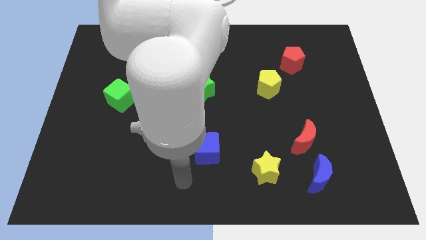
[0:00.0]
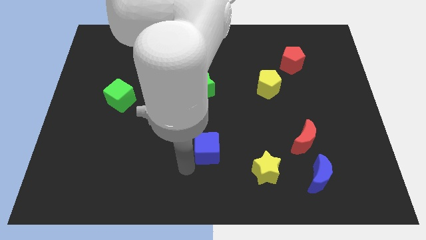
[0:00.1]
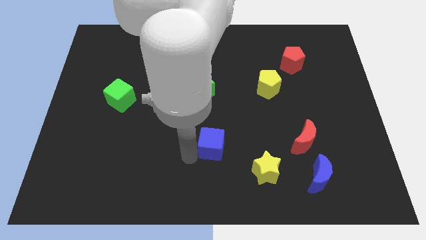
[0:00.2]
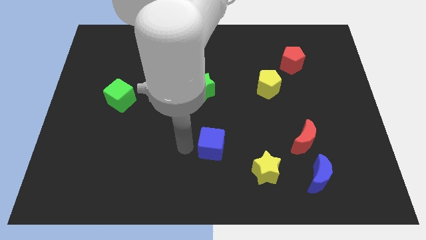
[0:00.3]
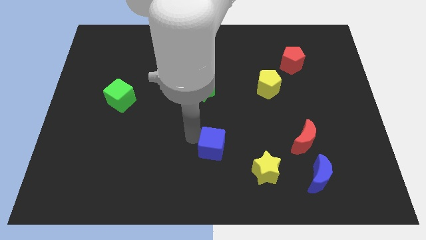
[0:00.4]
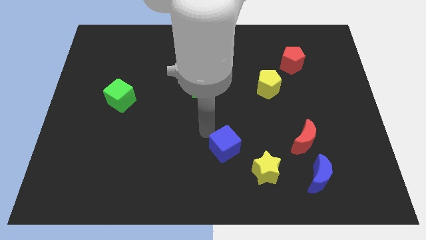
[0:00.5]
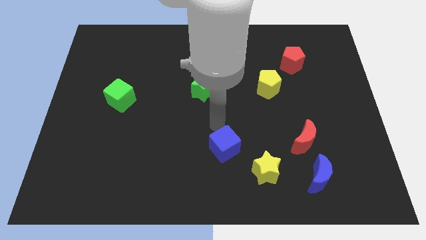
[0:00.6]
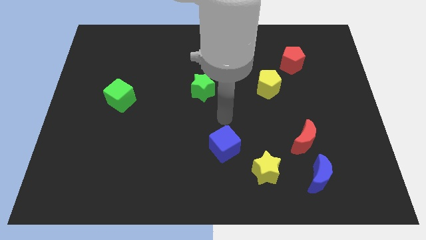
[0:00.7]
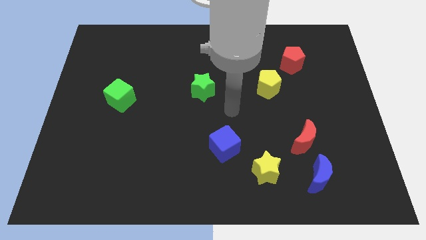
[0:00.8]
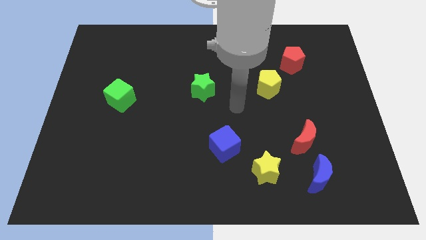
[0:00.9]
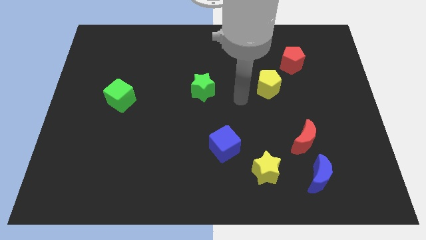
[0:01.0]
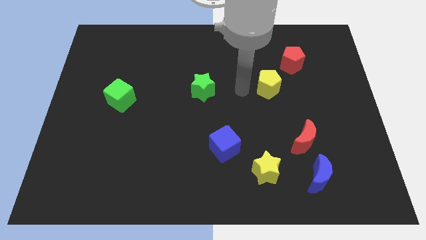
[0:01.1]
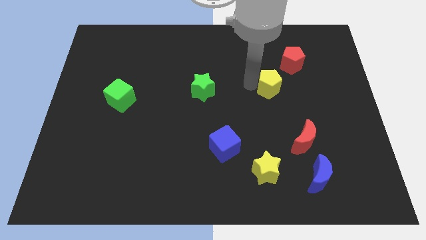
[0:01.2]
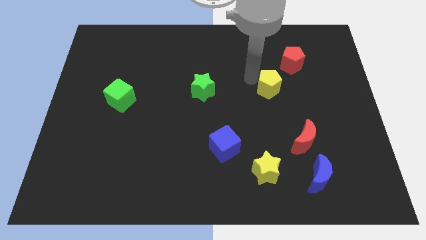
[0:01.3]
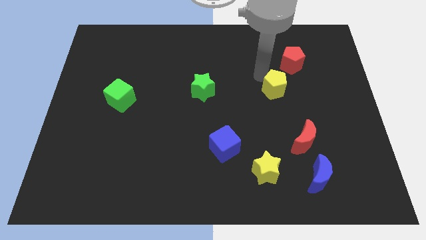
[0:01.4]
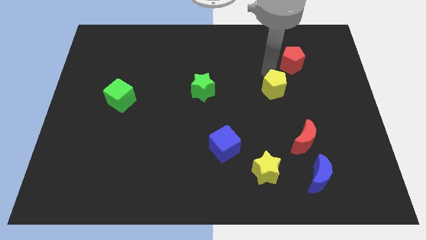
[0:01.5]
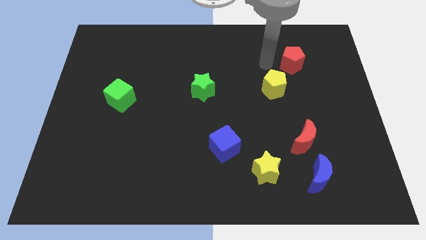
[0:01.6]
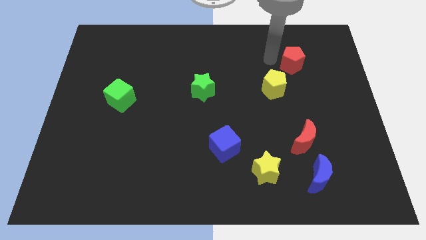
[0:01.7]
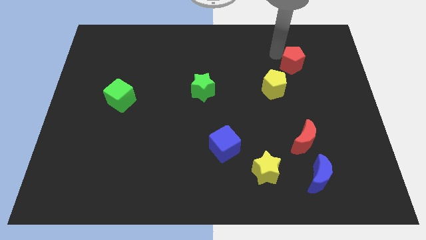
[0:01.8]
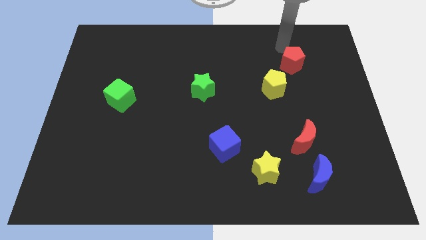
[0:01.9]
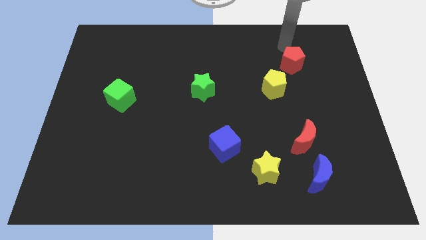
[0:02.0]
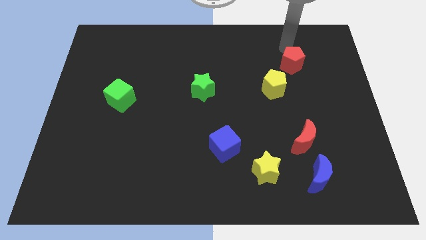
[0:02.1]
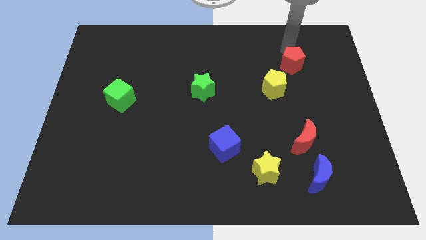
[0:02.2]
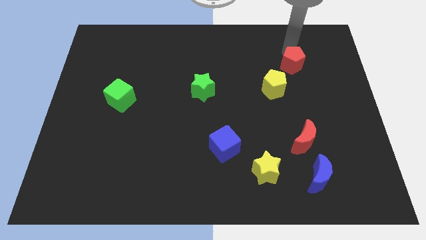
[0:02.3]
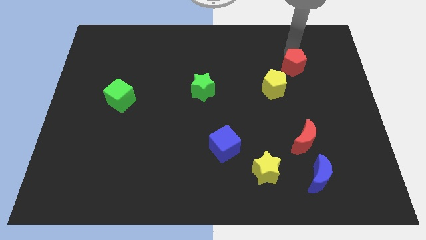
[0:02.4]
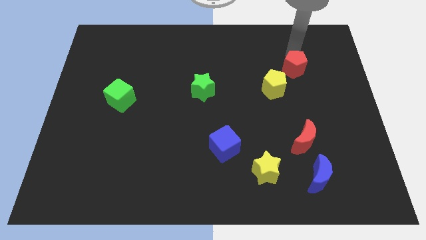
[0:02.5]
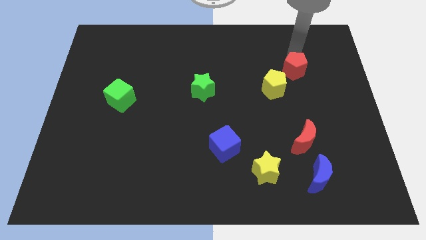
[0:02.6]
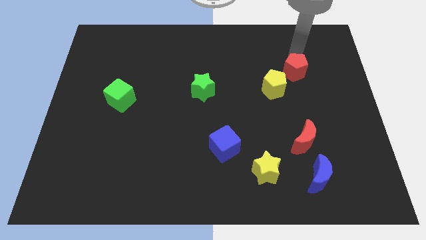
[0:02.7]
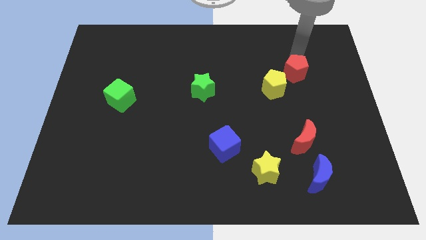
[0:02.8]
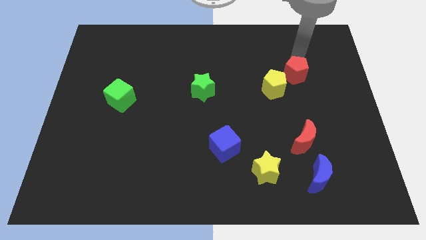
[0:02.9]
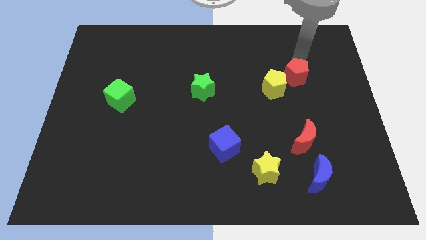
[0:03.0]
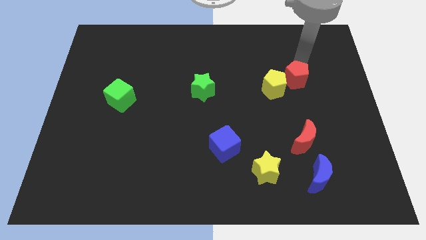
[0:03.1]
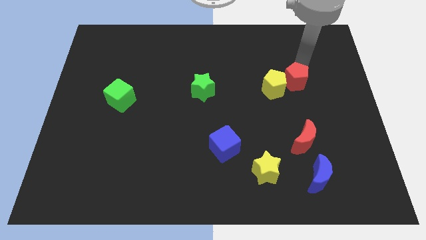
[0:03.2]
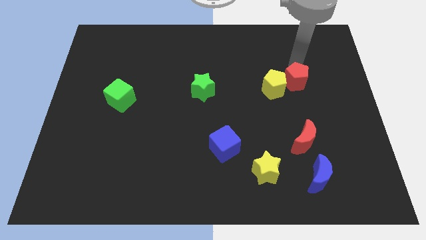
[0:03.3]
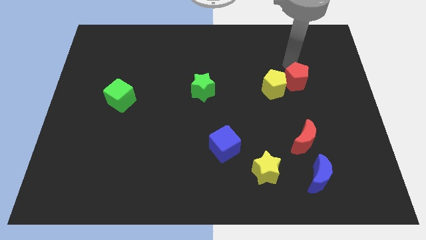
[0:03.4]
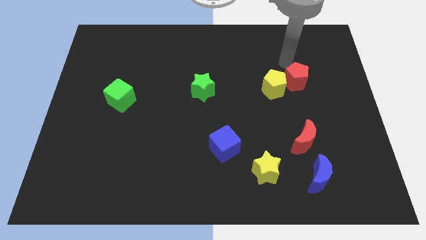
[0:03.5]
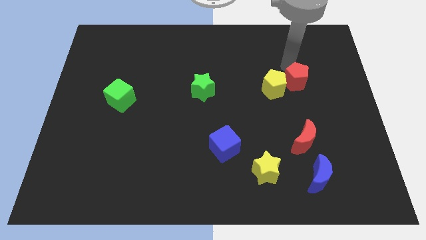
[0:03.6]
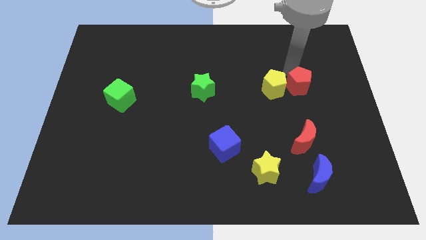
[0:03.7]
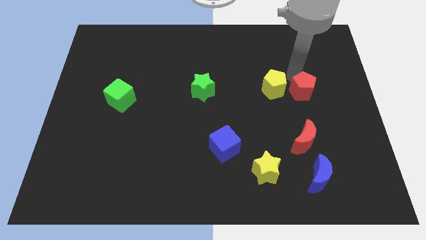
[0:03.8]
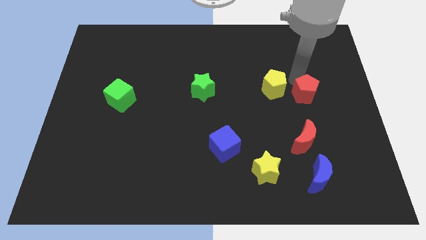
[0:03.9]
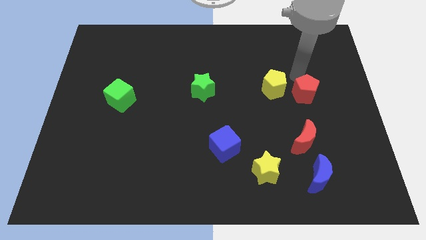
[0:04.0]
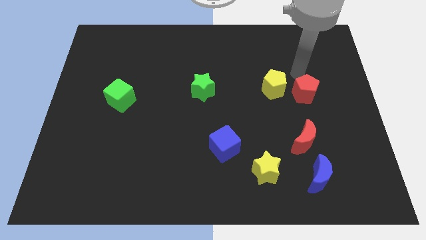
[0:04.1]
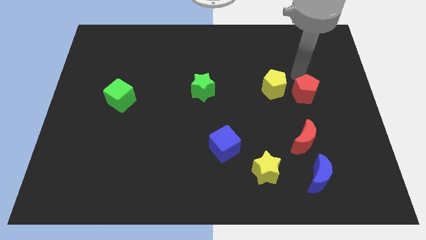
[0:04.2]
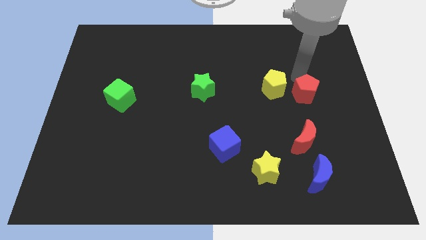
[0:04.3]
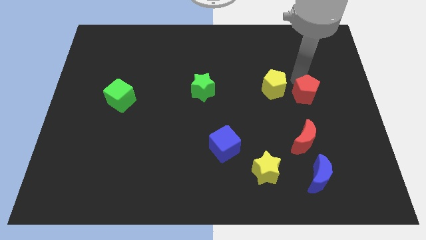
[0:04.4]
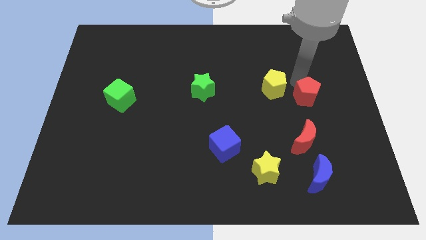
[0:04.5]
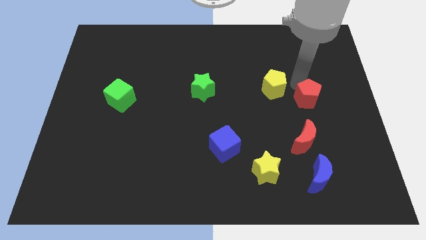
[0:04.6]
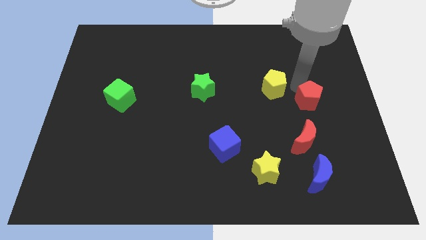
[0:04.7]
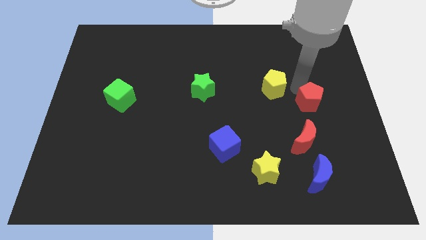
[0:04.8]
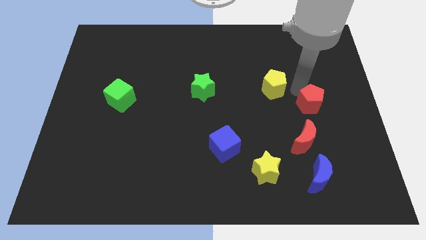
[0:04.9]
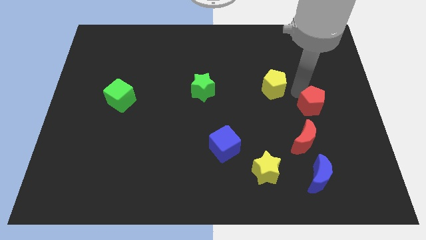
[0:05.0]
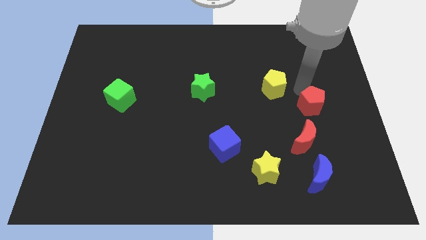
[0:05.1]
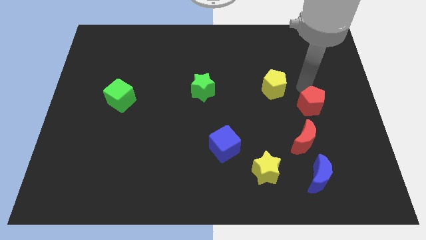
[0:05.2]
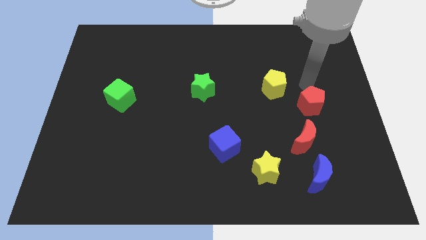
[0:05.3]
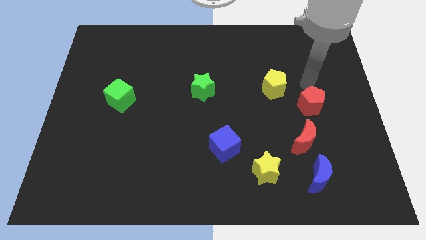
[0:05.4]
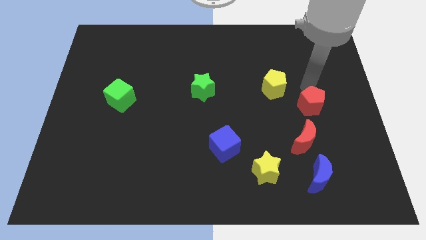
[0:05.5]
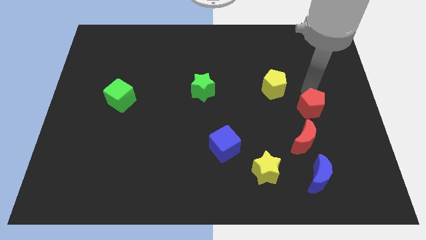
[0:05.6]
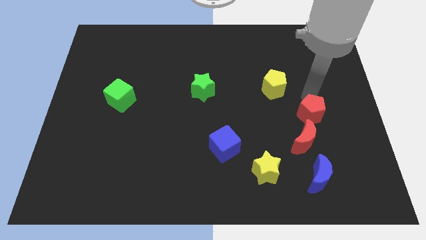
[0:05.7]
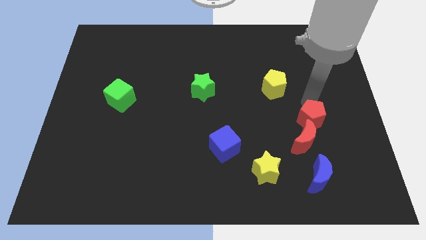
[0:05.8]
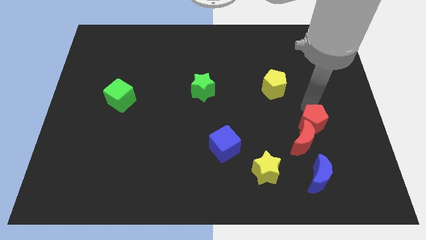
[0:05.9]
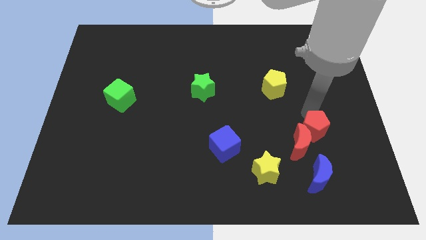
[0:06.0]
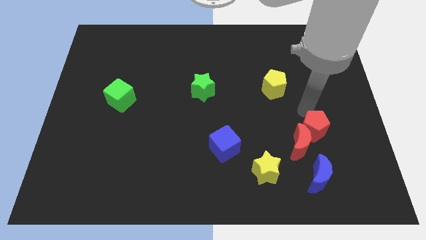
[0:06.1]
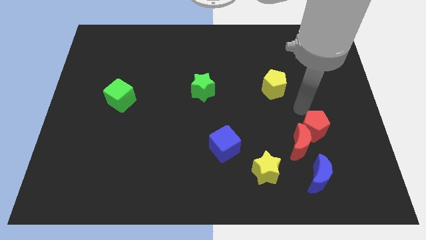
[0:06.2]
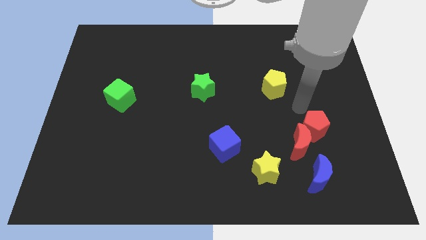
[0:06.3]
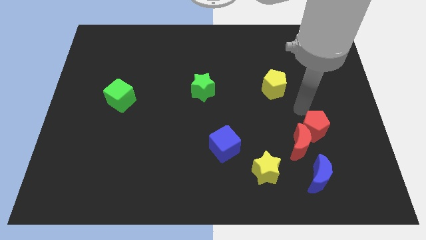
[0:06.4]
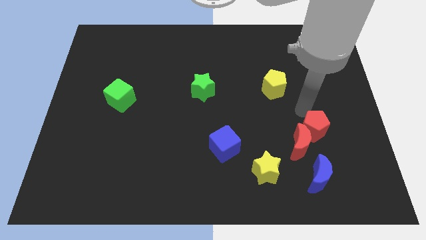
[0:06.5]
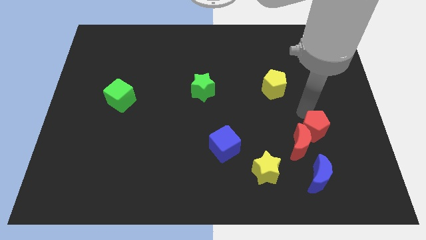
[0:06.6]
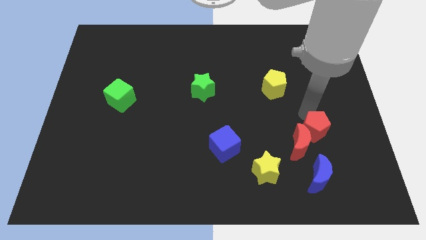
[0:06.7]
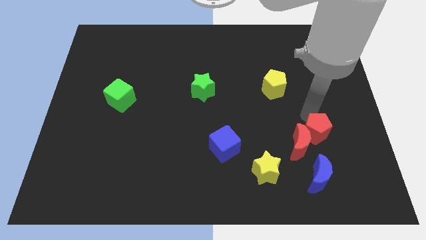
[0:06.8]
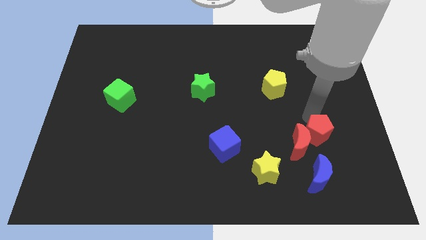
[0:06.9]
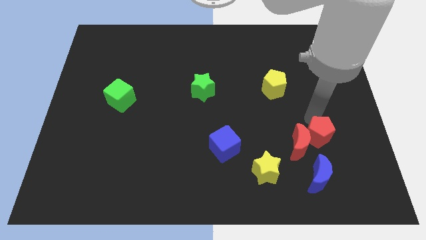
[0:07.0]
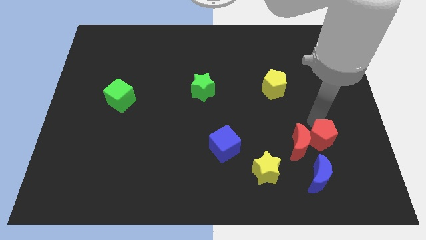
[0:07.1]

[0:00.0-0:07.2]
push the red pentagon to the bottom right of the red moon
